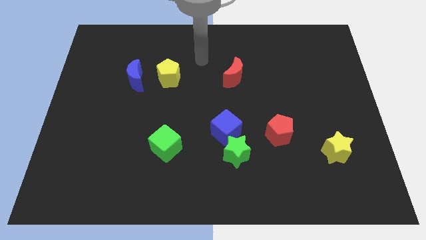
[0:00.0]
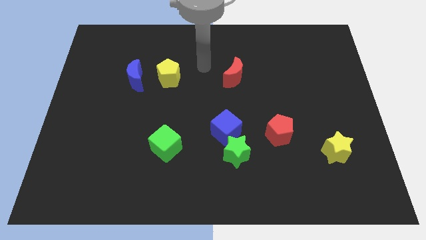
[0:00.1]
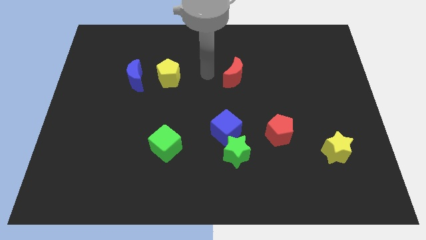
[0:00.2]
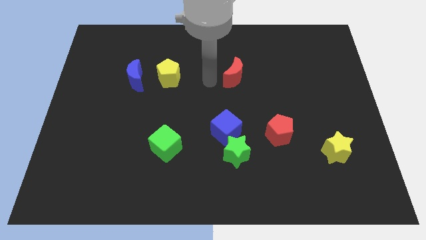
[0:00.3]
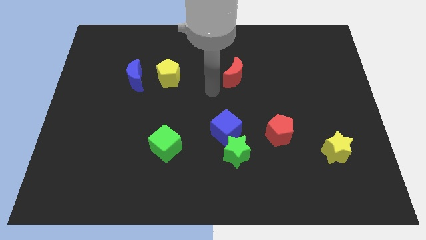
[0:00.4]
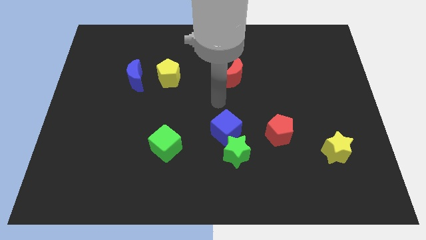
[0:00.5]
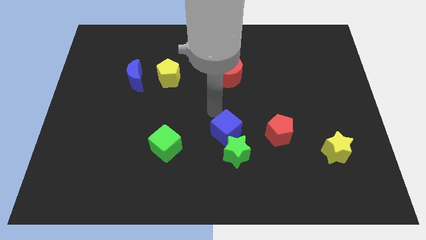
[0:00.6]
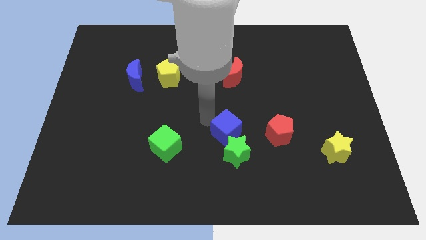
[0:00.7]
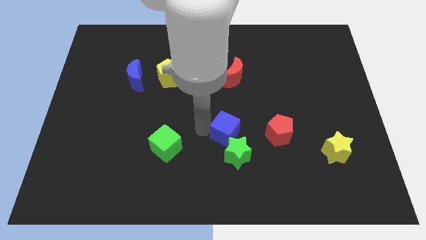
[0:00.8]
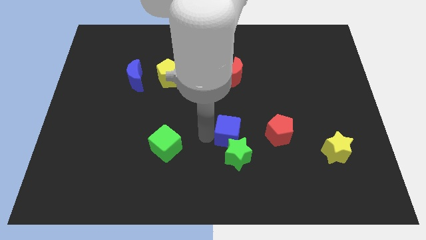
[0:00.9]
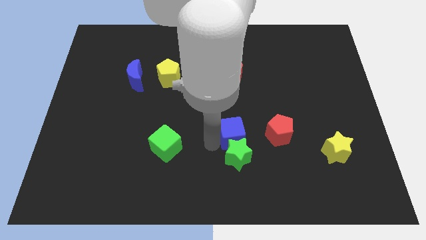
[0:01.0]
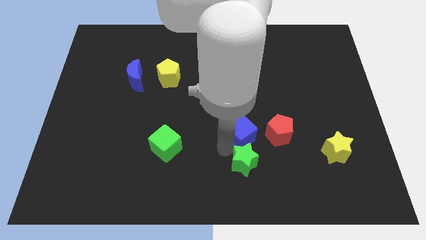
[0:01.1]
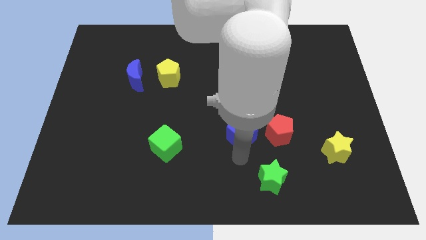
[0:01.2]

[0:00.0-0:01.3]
move the blue cube away from the green star

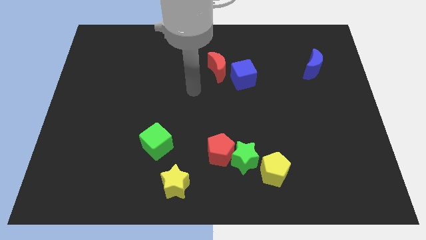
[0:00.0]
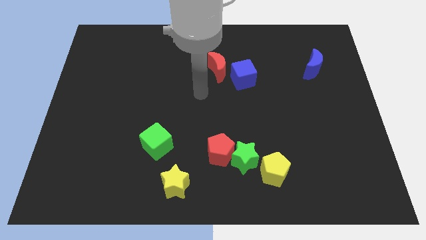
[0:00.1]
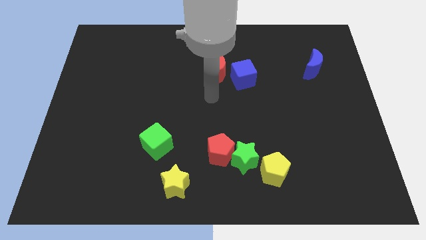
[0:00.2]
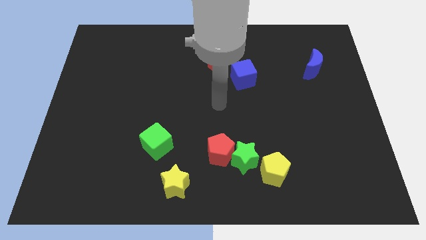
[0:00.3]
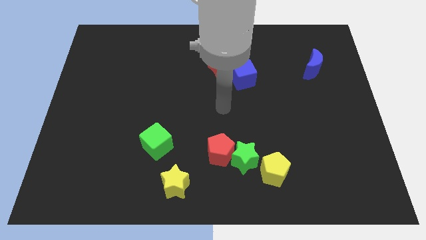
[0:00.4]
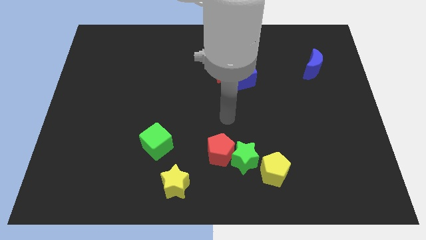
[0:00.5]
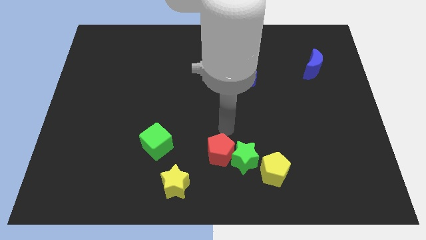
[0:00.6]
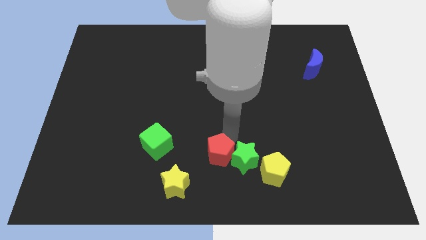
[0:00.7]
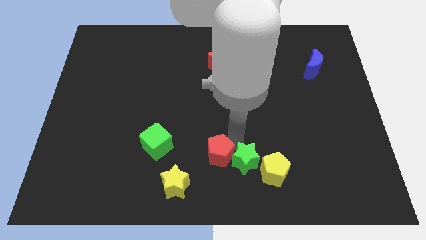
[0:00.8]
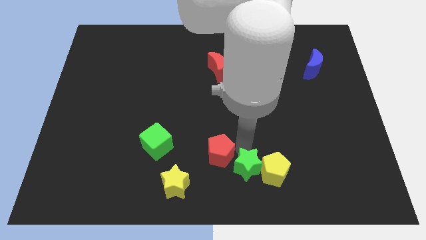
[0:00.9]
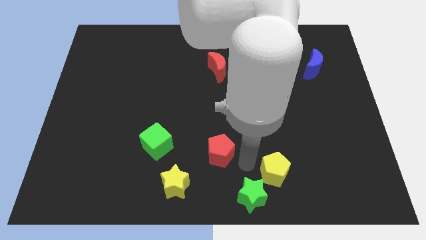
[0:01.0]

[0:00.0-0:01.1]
move the red pentagon away from the green star

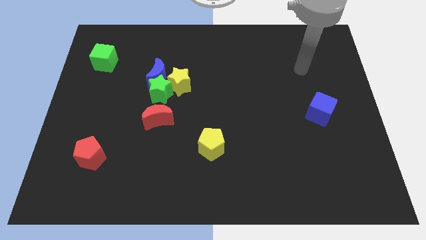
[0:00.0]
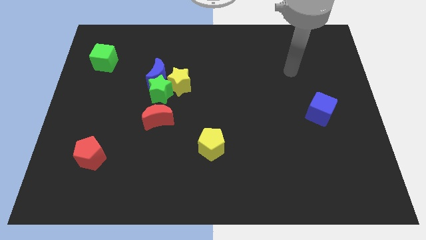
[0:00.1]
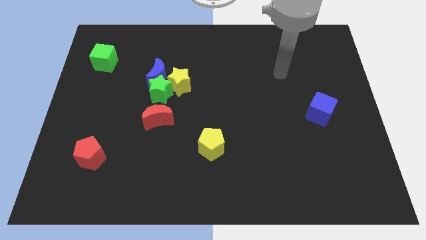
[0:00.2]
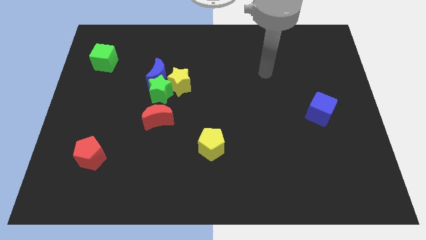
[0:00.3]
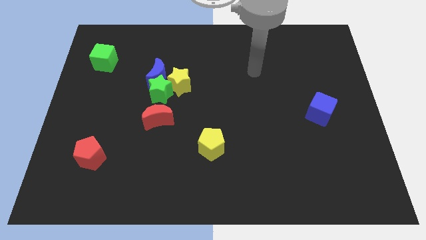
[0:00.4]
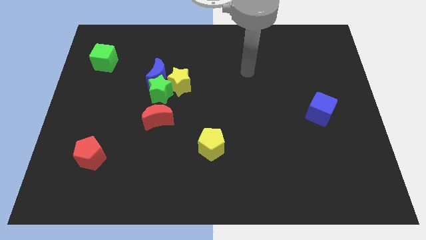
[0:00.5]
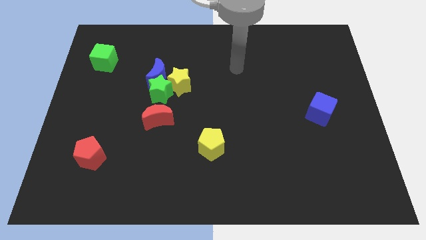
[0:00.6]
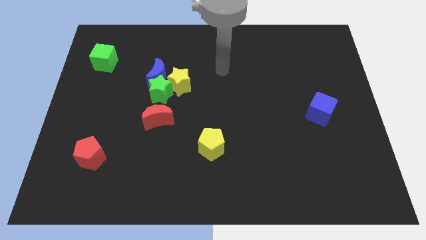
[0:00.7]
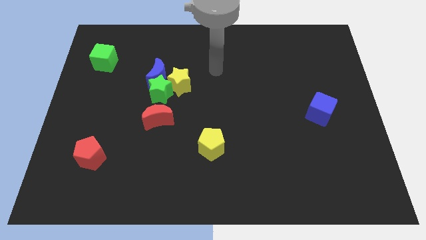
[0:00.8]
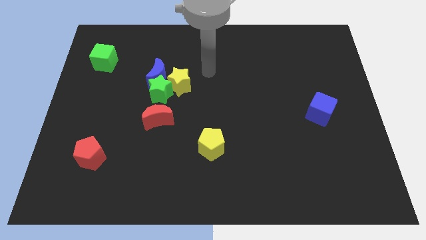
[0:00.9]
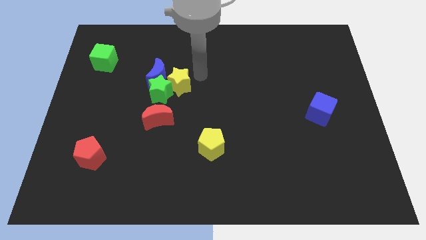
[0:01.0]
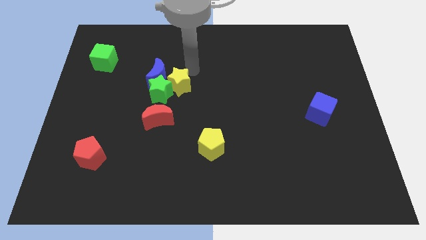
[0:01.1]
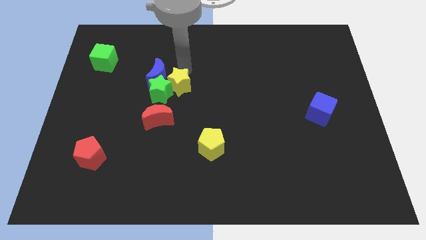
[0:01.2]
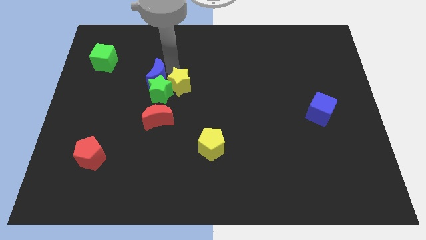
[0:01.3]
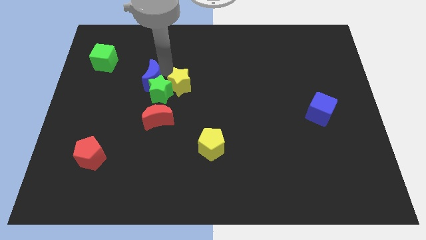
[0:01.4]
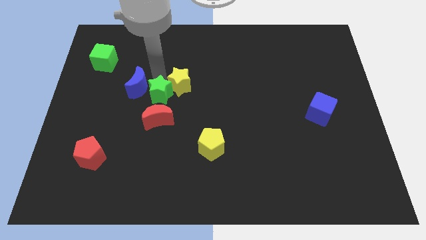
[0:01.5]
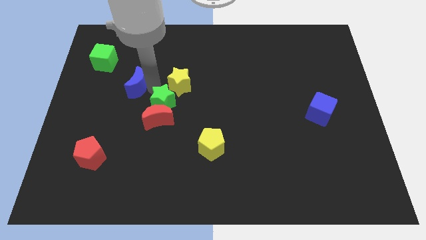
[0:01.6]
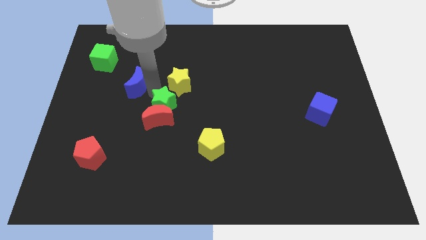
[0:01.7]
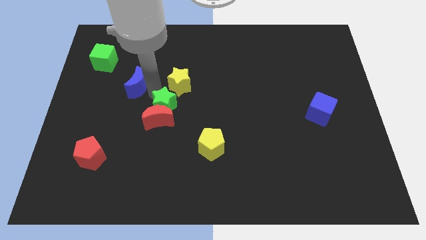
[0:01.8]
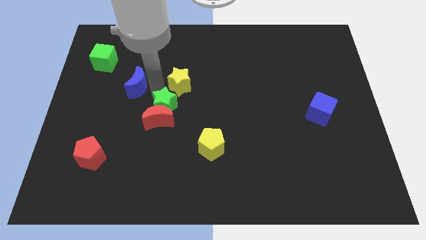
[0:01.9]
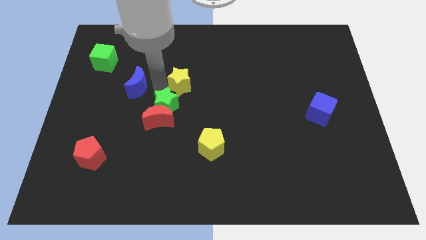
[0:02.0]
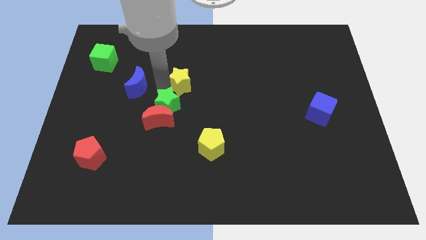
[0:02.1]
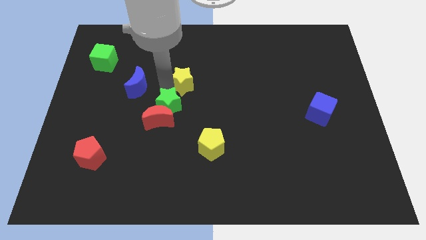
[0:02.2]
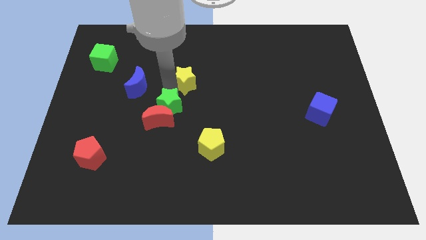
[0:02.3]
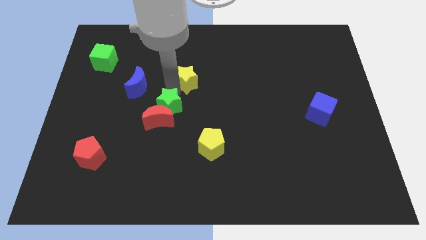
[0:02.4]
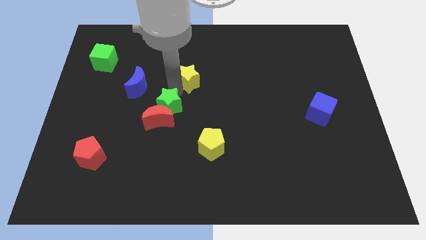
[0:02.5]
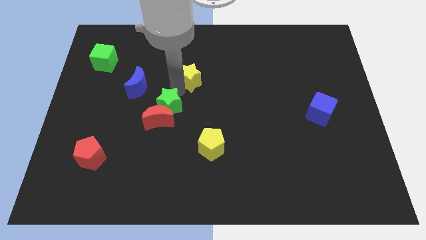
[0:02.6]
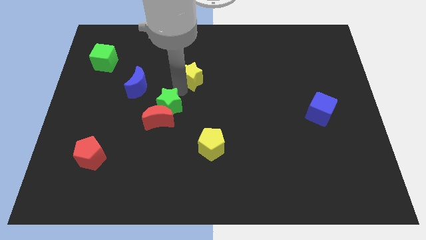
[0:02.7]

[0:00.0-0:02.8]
move the yellow star away from the green star and blue moon

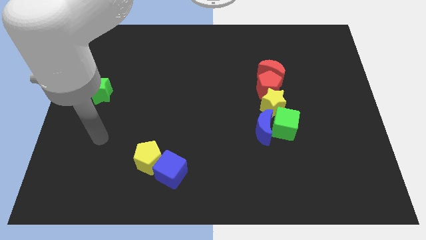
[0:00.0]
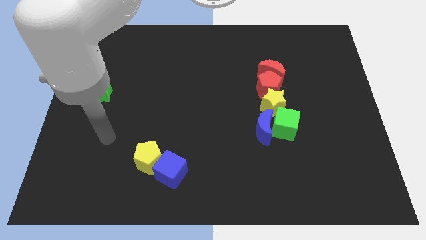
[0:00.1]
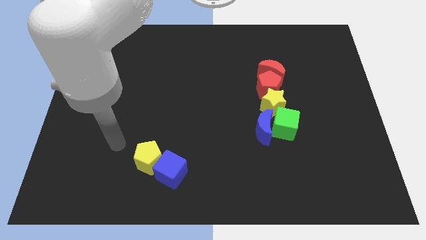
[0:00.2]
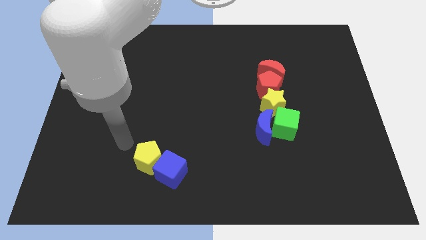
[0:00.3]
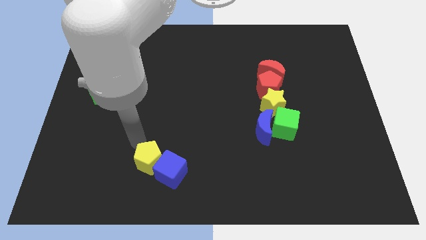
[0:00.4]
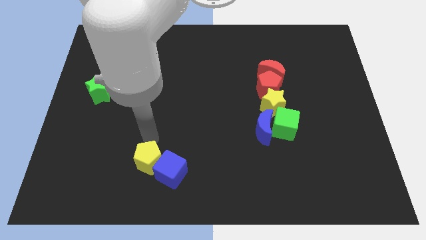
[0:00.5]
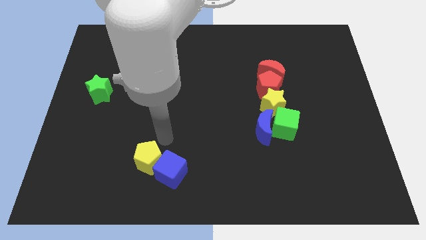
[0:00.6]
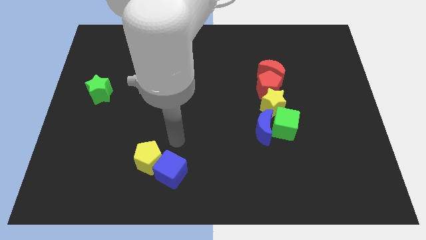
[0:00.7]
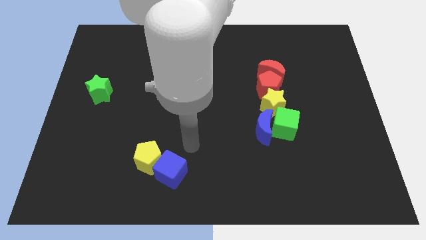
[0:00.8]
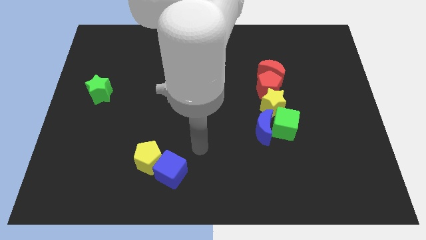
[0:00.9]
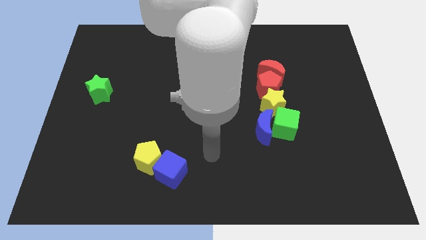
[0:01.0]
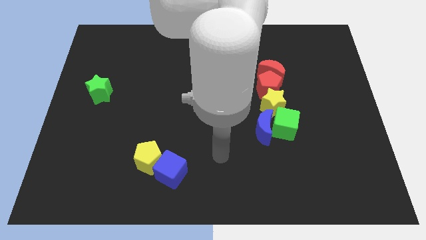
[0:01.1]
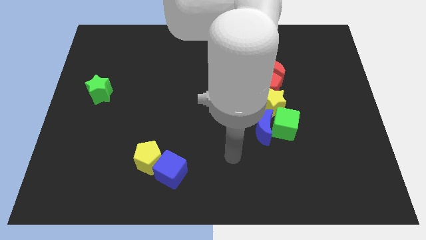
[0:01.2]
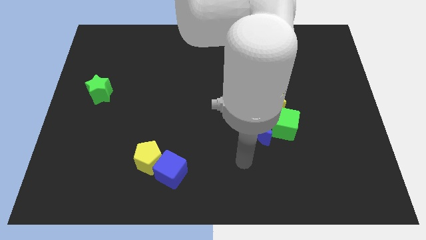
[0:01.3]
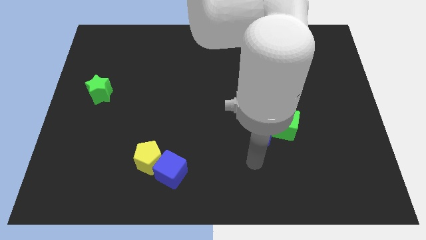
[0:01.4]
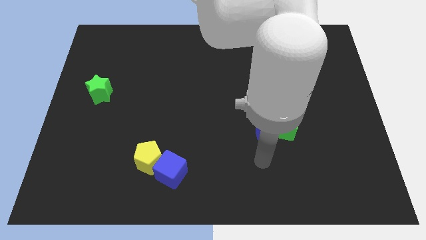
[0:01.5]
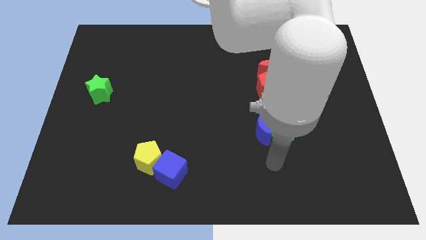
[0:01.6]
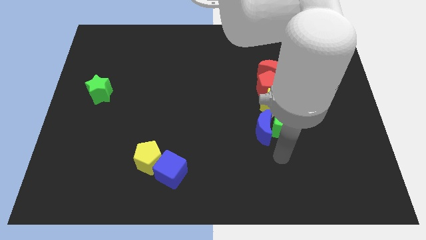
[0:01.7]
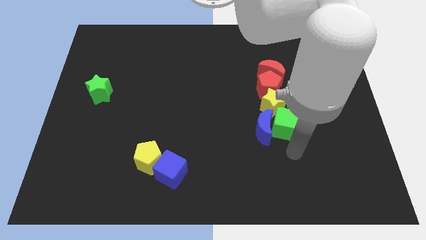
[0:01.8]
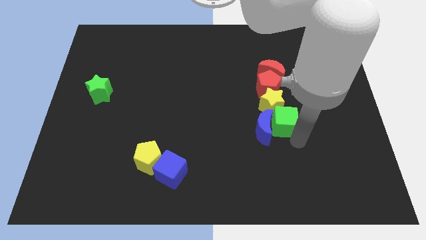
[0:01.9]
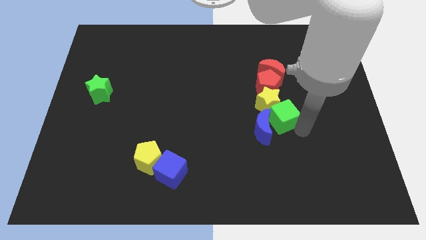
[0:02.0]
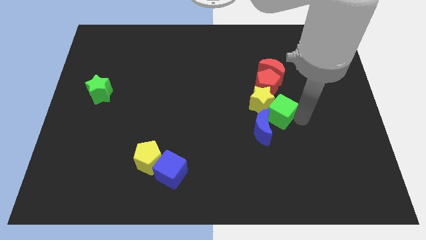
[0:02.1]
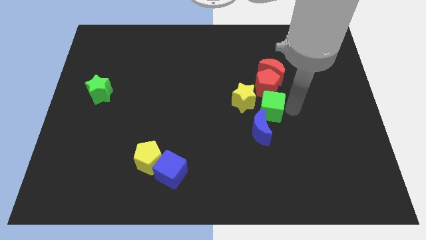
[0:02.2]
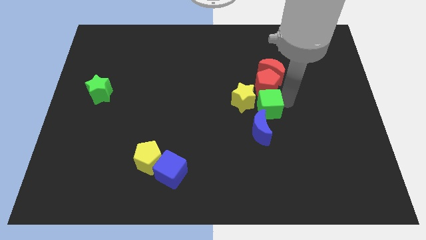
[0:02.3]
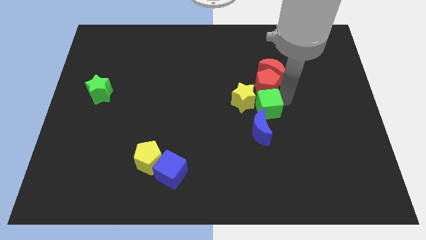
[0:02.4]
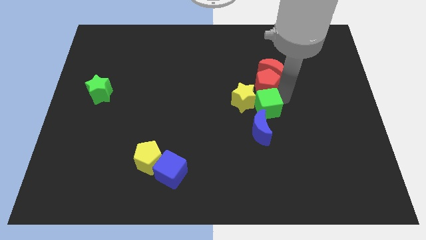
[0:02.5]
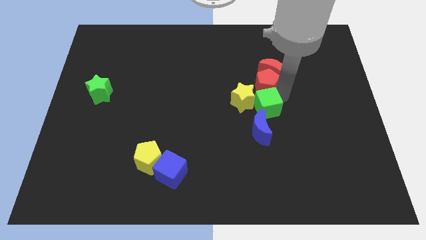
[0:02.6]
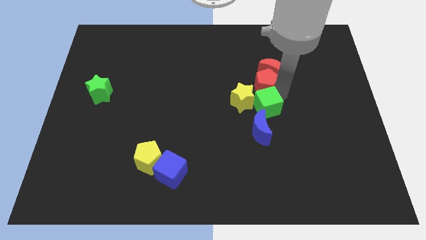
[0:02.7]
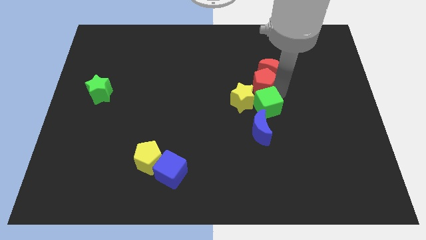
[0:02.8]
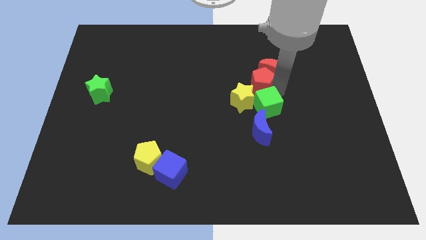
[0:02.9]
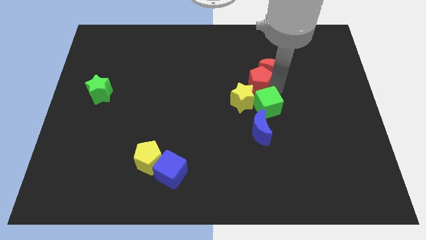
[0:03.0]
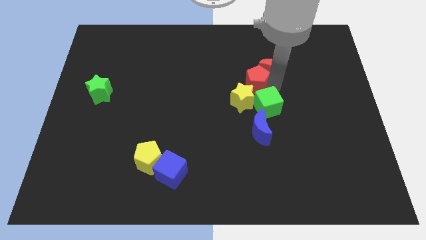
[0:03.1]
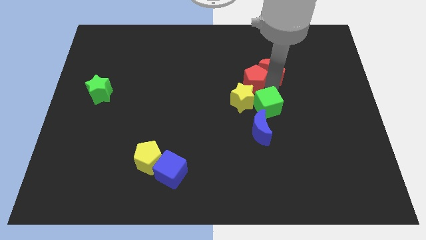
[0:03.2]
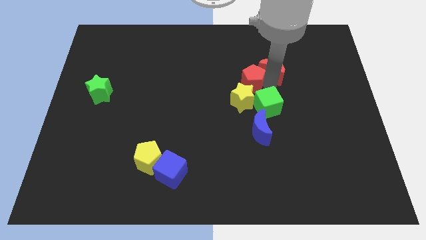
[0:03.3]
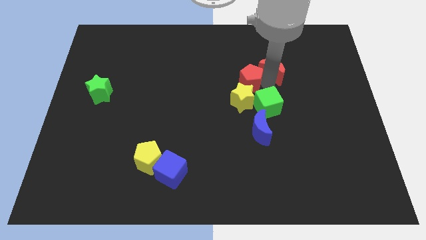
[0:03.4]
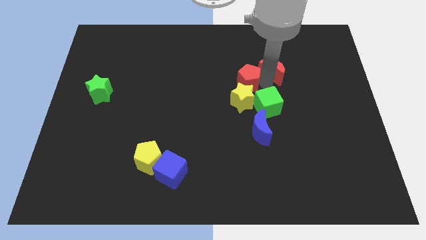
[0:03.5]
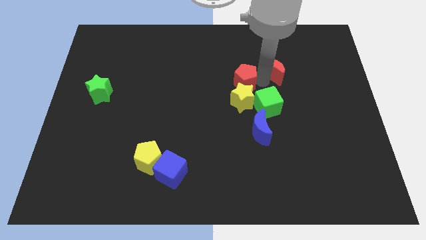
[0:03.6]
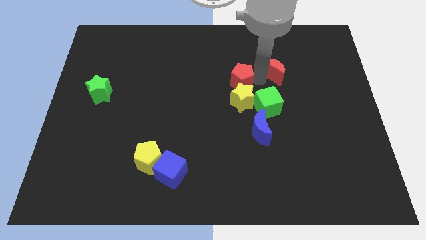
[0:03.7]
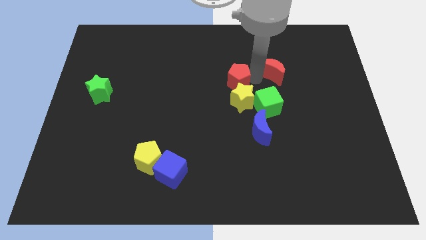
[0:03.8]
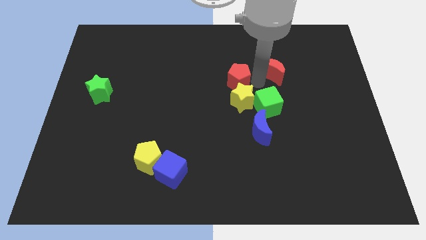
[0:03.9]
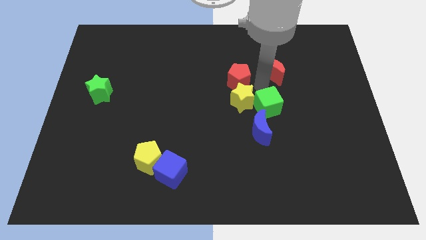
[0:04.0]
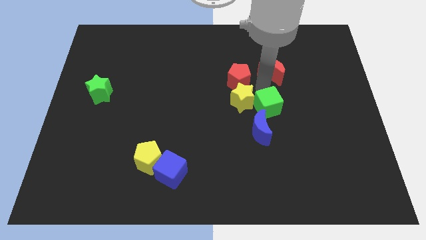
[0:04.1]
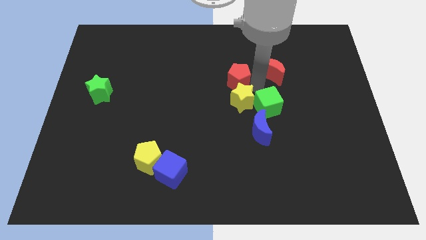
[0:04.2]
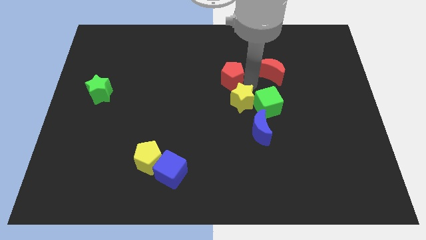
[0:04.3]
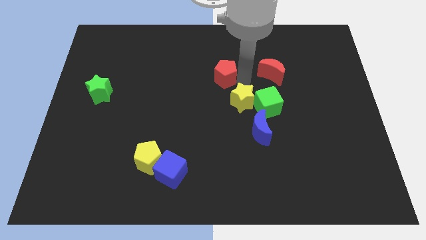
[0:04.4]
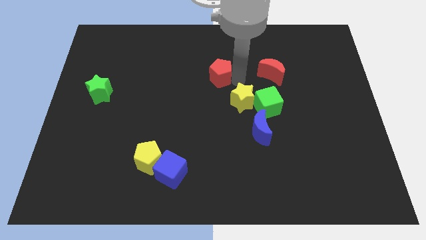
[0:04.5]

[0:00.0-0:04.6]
move the red pentagon away from the red moon and yellow star
